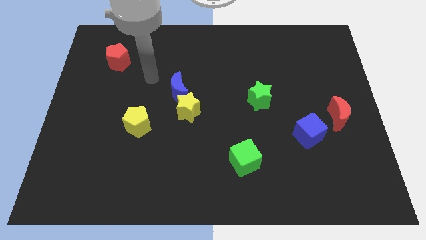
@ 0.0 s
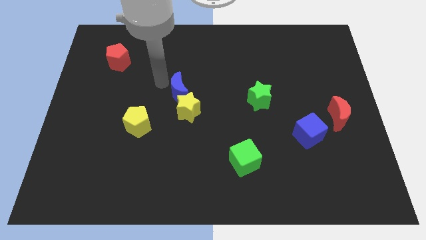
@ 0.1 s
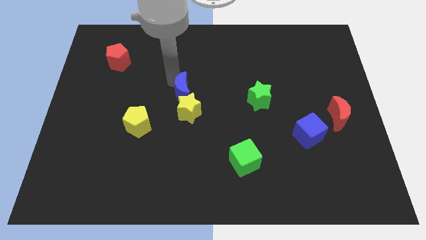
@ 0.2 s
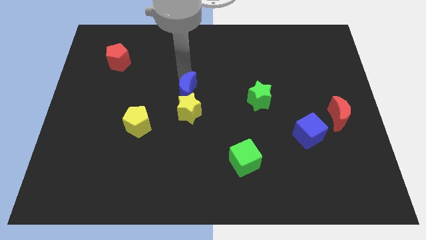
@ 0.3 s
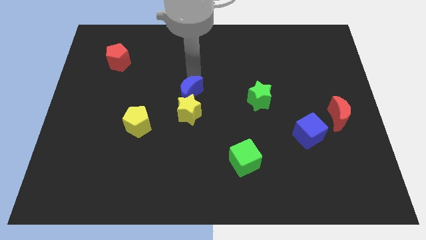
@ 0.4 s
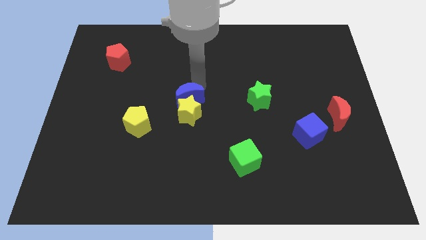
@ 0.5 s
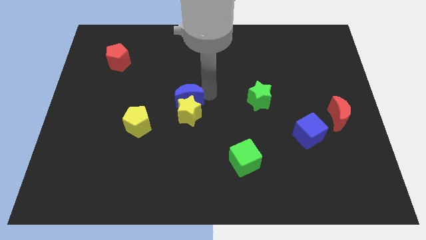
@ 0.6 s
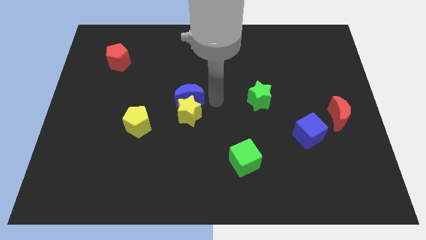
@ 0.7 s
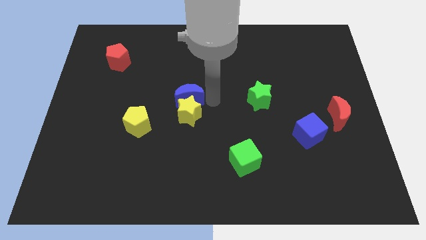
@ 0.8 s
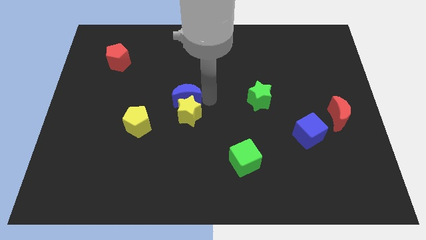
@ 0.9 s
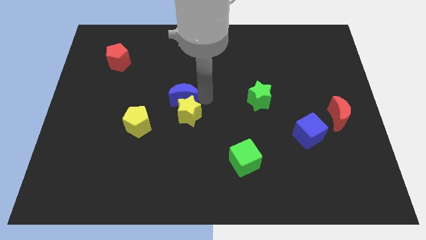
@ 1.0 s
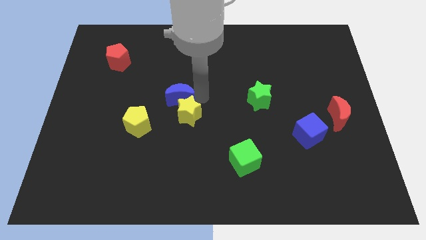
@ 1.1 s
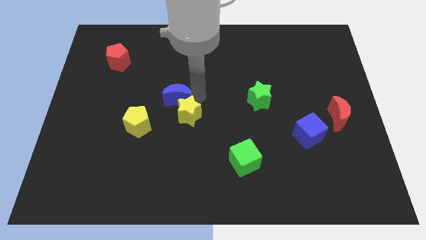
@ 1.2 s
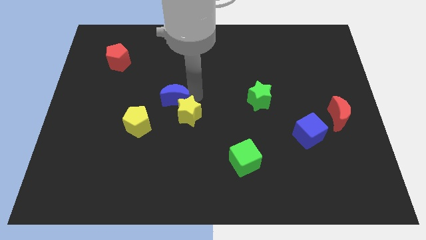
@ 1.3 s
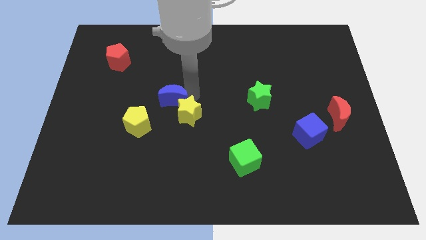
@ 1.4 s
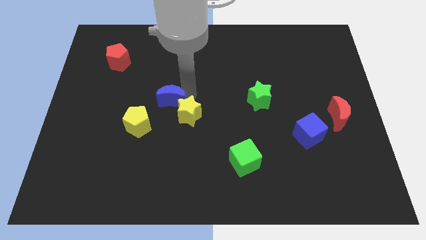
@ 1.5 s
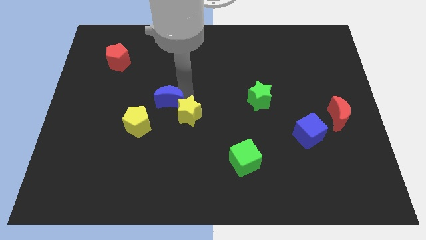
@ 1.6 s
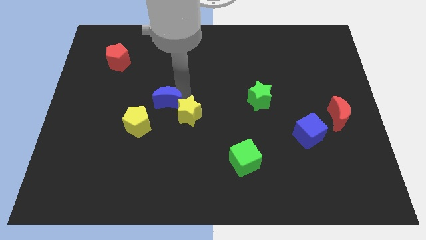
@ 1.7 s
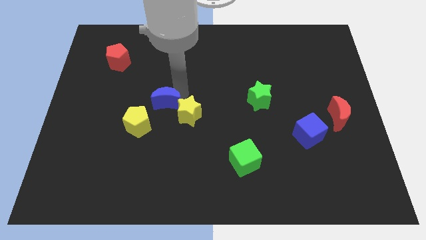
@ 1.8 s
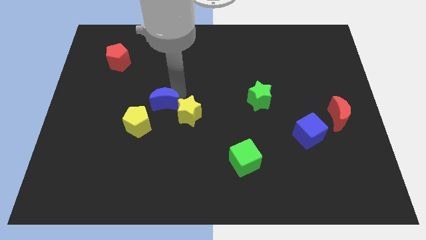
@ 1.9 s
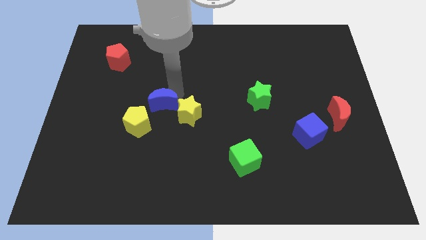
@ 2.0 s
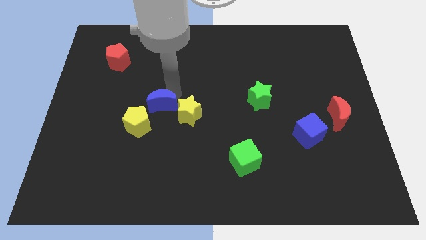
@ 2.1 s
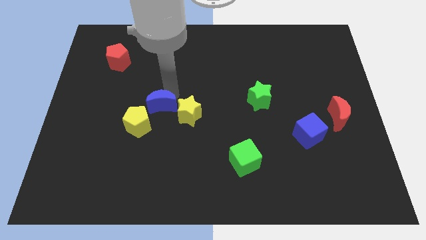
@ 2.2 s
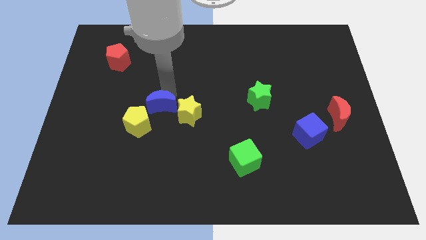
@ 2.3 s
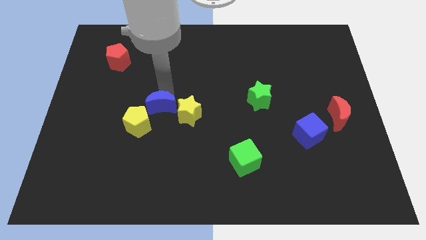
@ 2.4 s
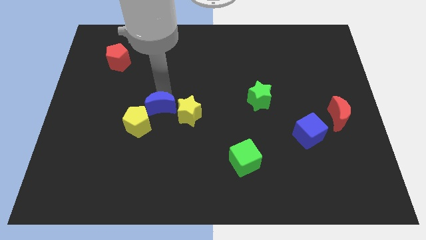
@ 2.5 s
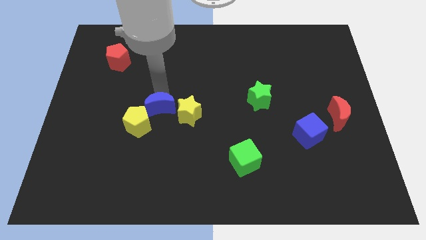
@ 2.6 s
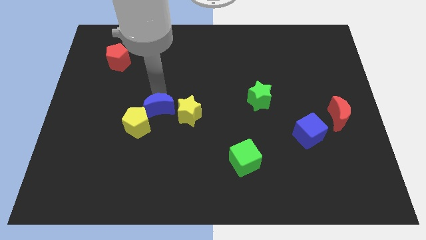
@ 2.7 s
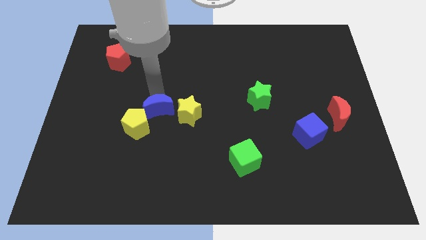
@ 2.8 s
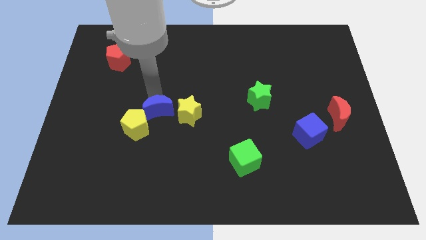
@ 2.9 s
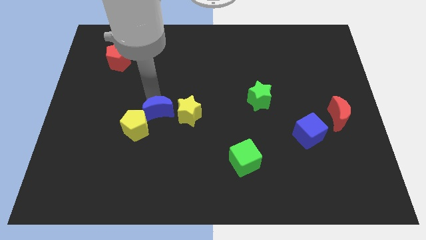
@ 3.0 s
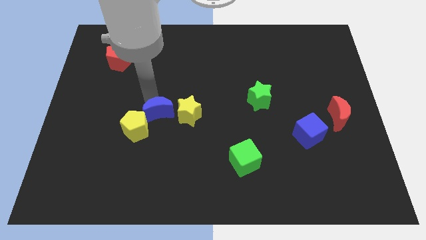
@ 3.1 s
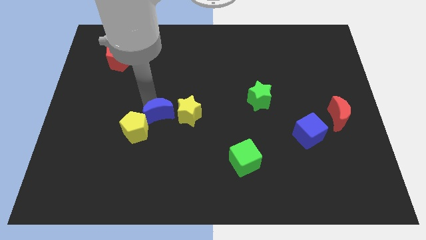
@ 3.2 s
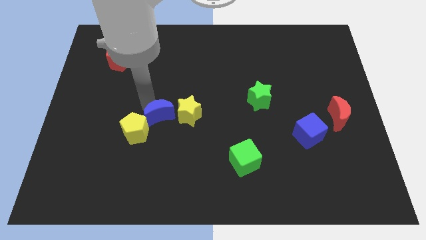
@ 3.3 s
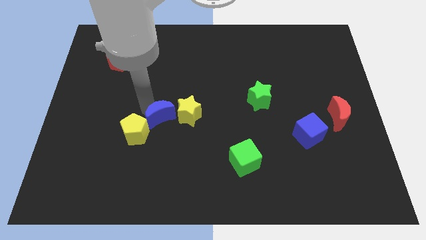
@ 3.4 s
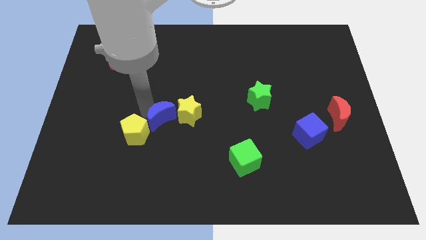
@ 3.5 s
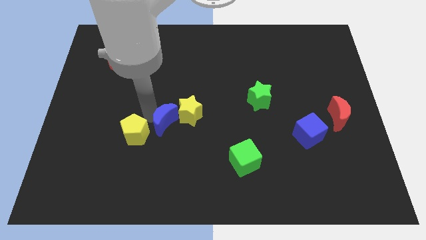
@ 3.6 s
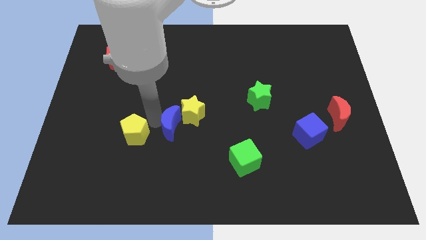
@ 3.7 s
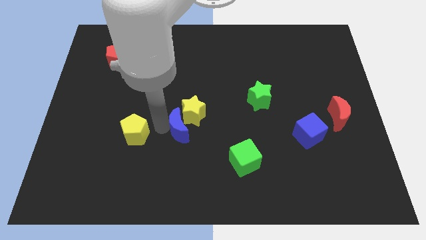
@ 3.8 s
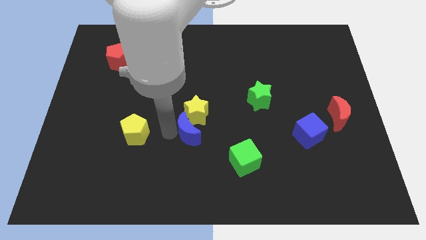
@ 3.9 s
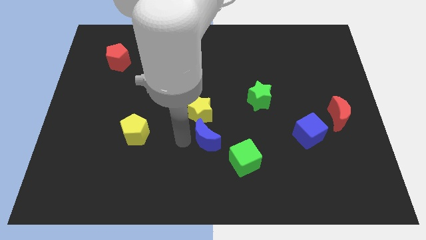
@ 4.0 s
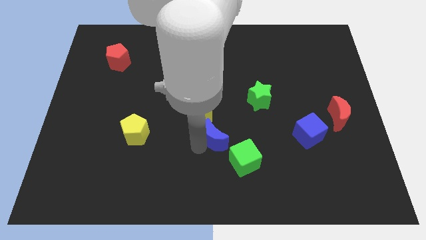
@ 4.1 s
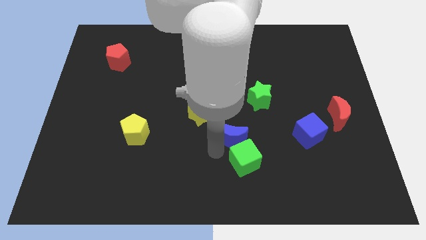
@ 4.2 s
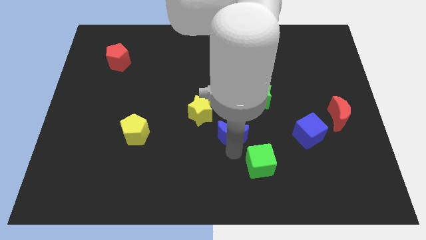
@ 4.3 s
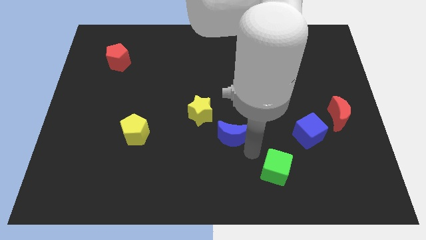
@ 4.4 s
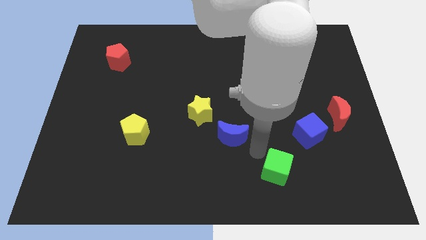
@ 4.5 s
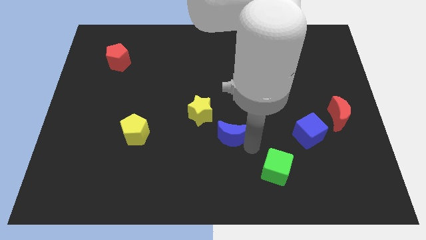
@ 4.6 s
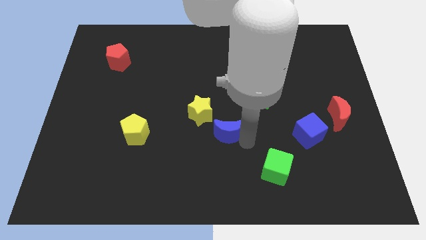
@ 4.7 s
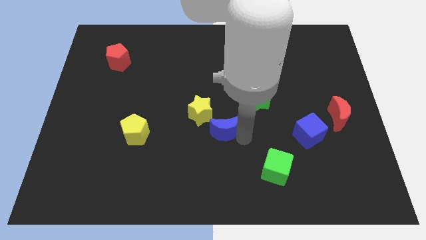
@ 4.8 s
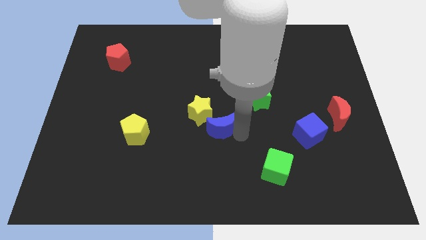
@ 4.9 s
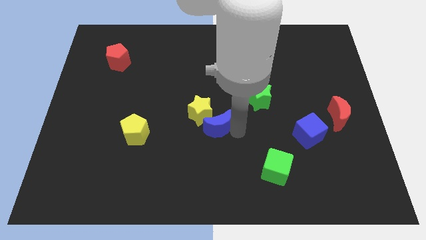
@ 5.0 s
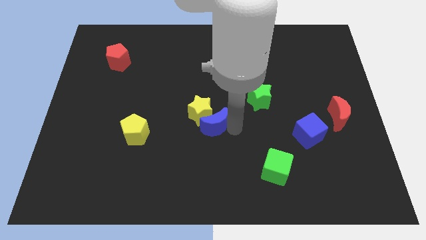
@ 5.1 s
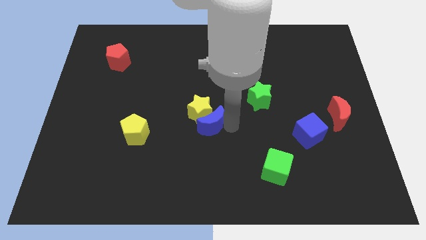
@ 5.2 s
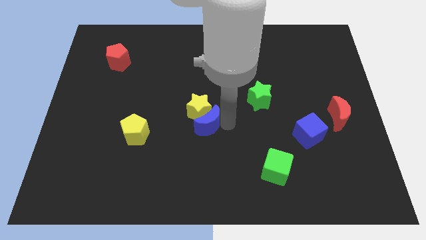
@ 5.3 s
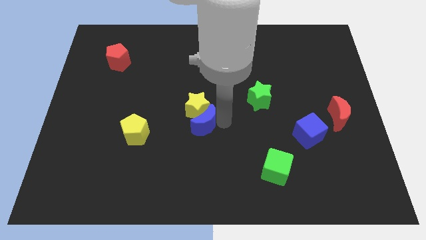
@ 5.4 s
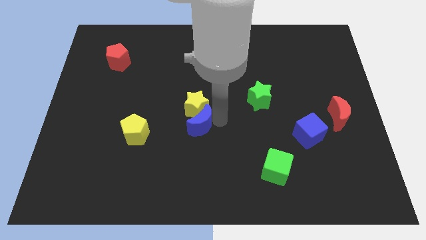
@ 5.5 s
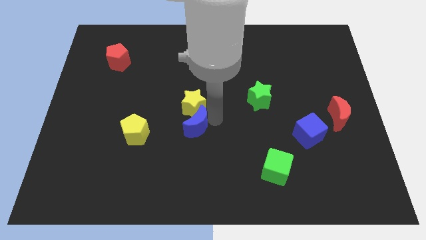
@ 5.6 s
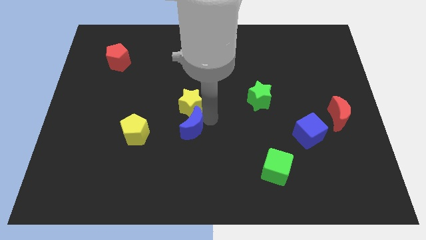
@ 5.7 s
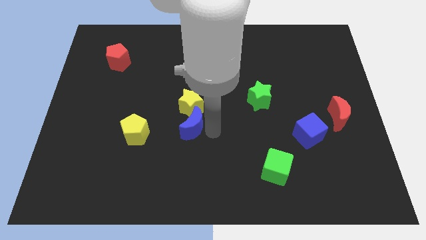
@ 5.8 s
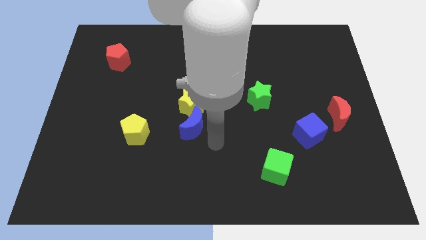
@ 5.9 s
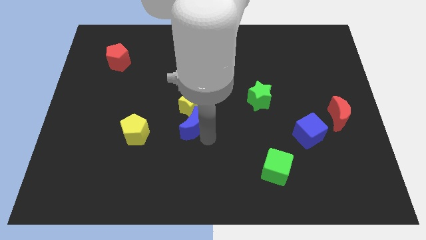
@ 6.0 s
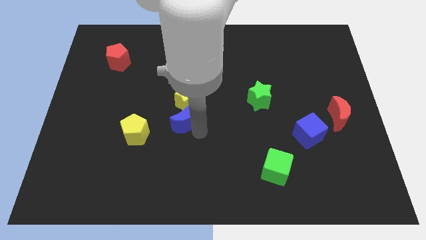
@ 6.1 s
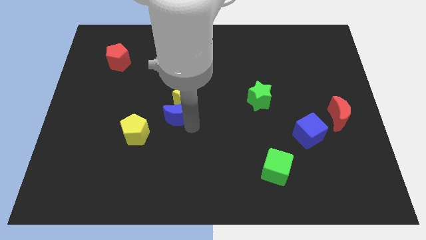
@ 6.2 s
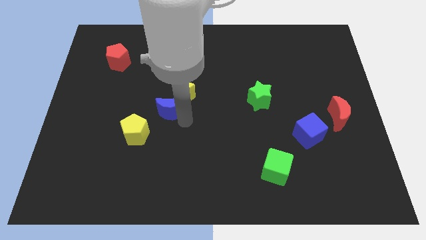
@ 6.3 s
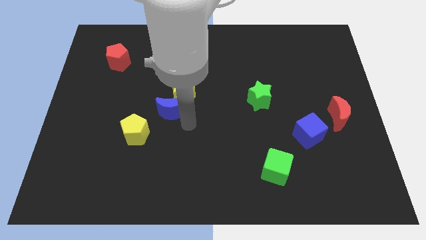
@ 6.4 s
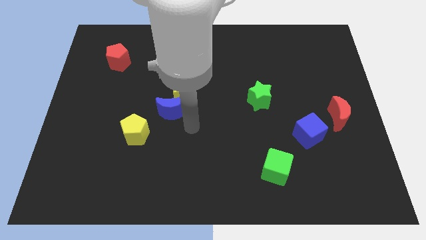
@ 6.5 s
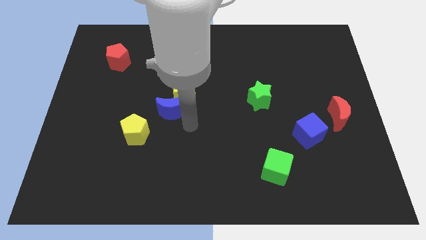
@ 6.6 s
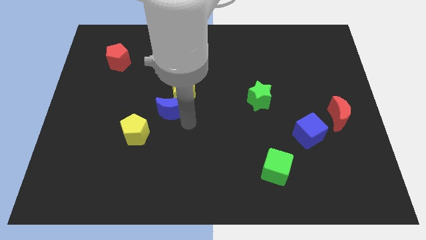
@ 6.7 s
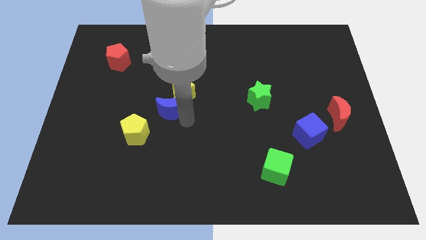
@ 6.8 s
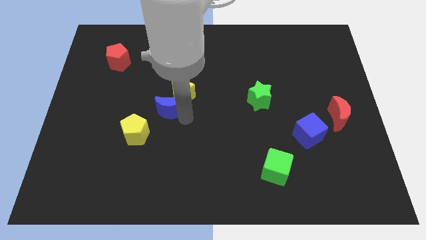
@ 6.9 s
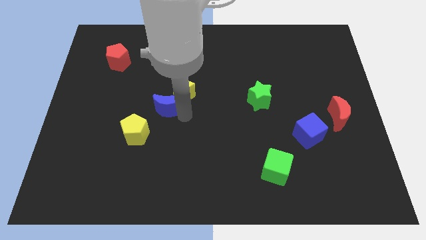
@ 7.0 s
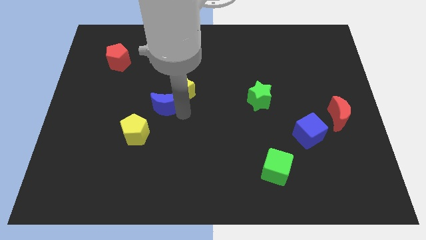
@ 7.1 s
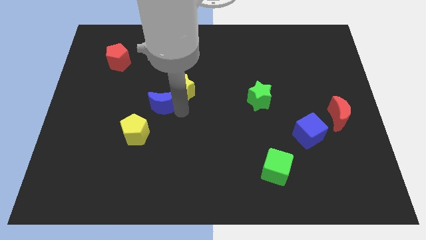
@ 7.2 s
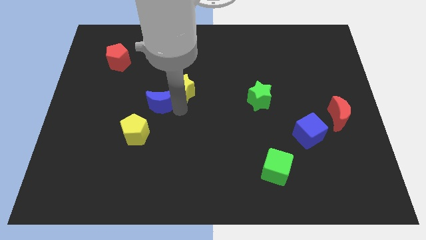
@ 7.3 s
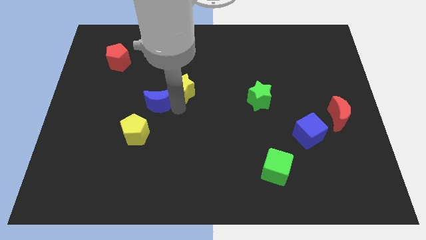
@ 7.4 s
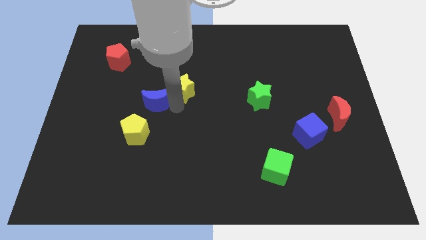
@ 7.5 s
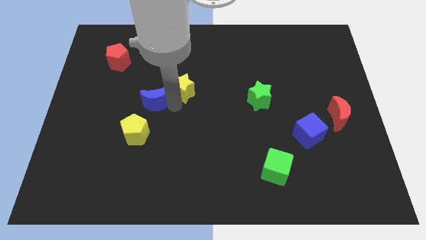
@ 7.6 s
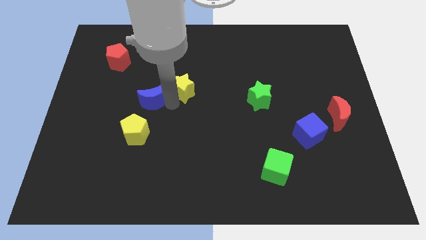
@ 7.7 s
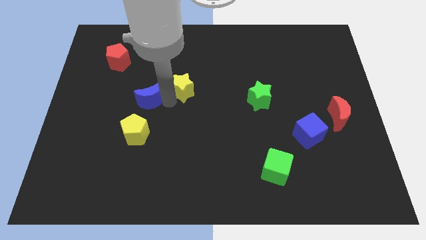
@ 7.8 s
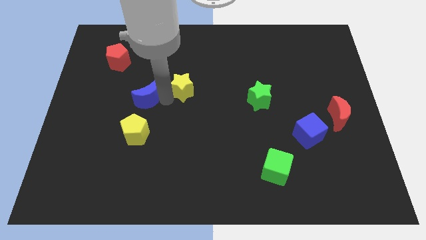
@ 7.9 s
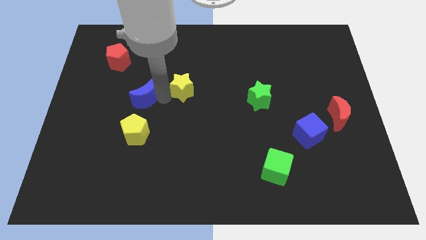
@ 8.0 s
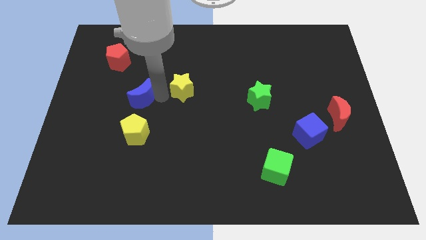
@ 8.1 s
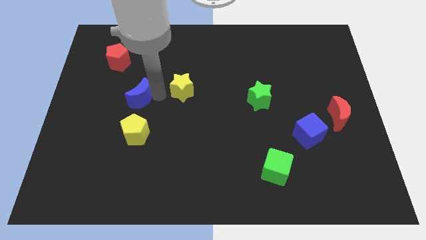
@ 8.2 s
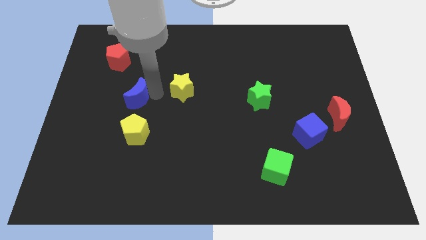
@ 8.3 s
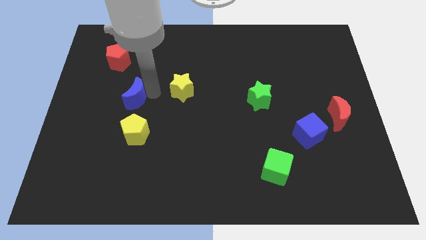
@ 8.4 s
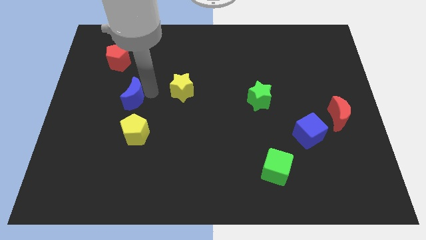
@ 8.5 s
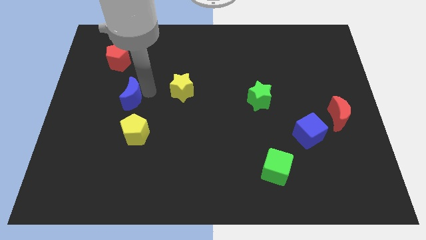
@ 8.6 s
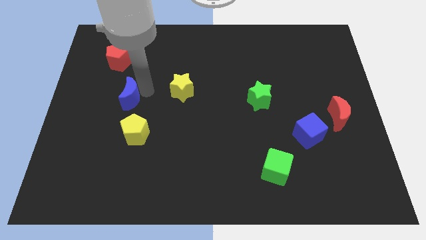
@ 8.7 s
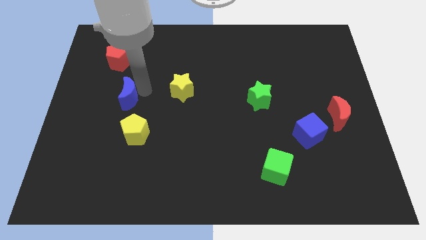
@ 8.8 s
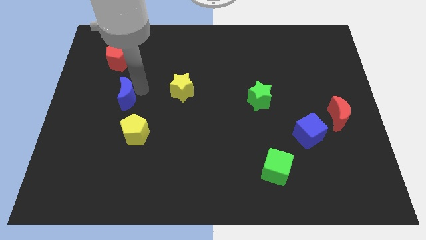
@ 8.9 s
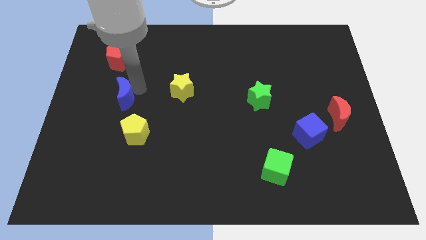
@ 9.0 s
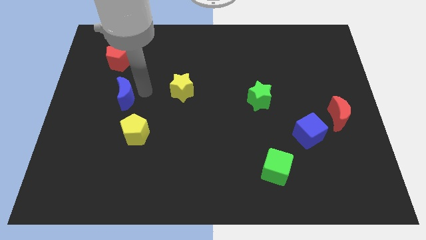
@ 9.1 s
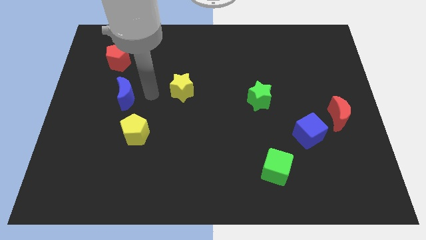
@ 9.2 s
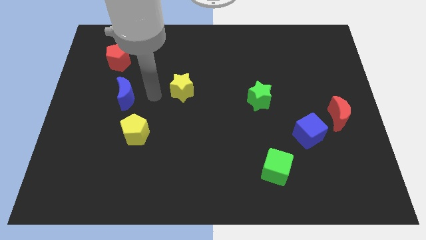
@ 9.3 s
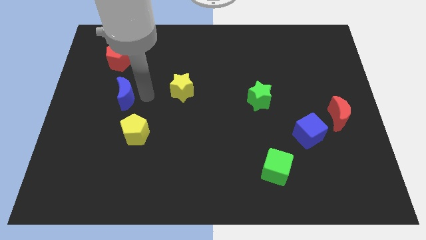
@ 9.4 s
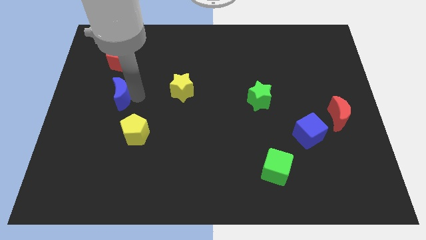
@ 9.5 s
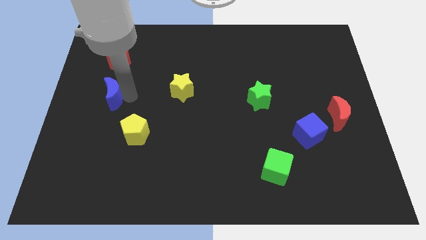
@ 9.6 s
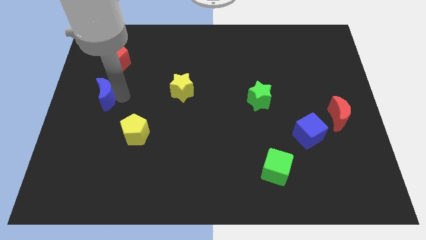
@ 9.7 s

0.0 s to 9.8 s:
put the blue moon to the left side of the board
